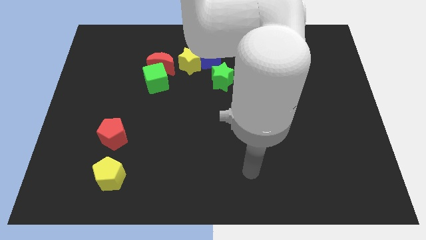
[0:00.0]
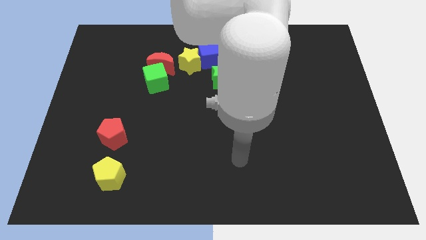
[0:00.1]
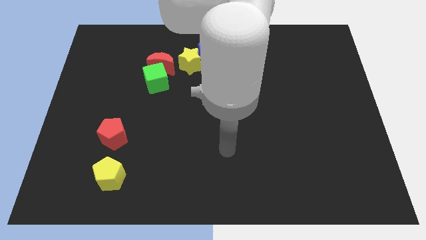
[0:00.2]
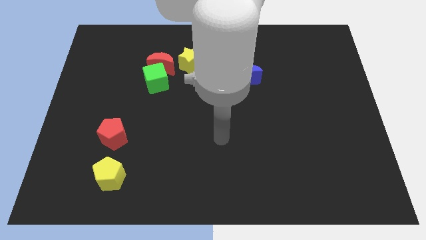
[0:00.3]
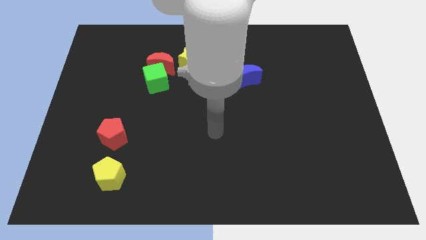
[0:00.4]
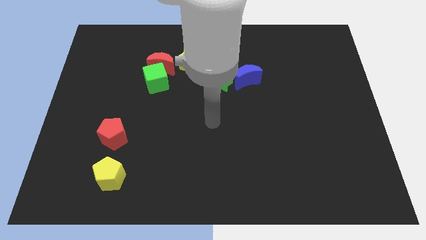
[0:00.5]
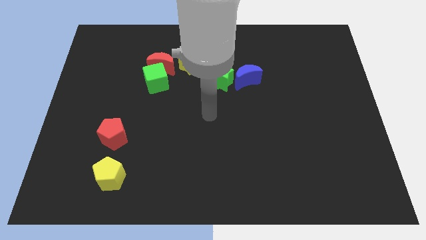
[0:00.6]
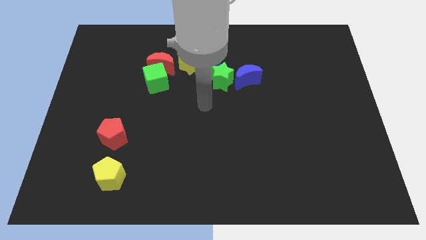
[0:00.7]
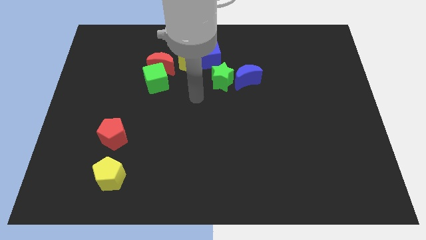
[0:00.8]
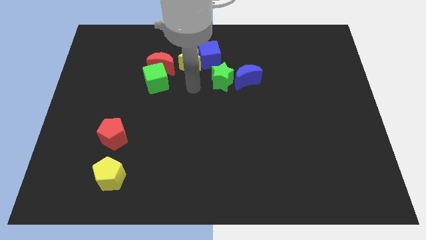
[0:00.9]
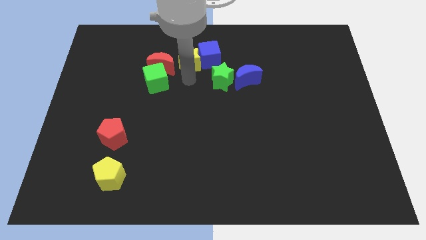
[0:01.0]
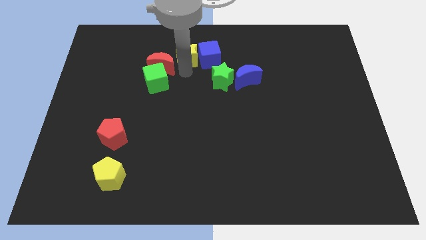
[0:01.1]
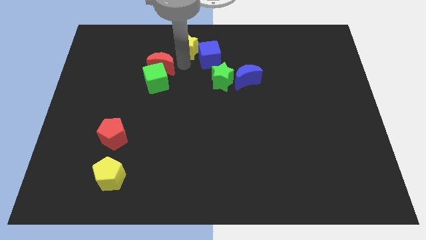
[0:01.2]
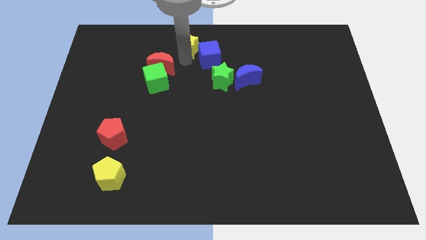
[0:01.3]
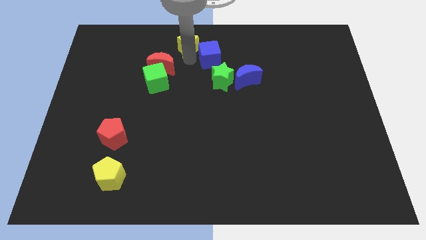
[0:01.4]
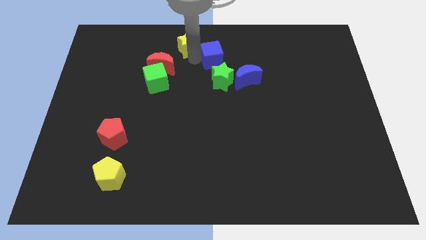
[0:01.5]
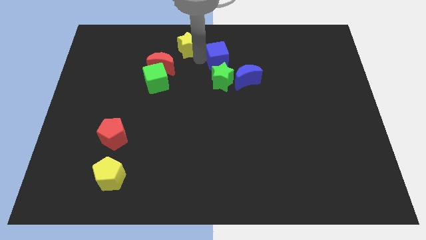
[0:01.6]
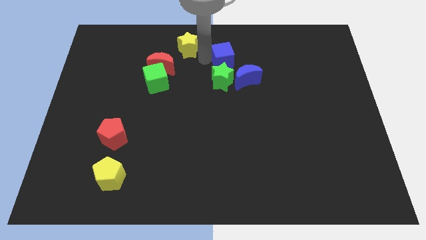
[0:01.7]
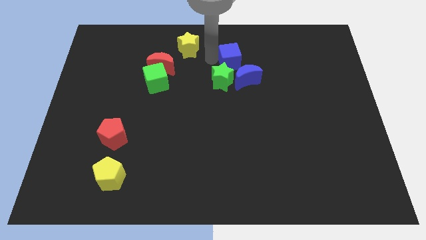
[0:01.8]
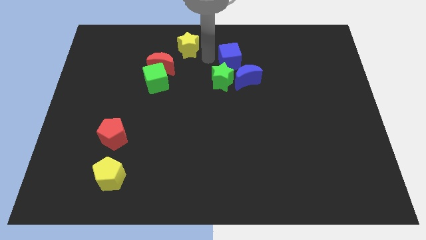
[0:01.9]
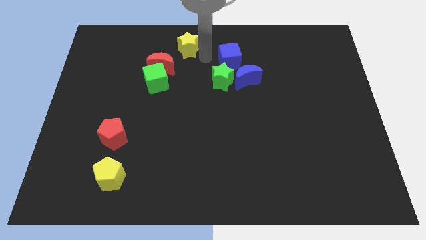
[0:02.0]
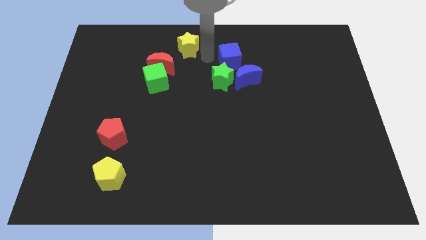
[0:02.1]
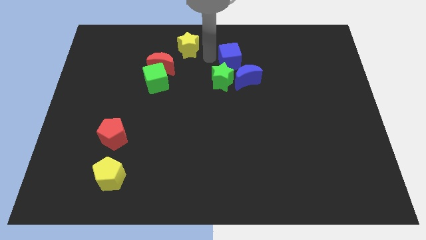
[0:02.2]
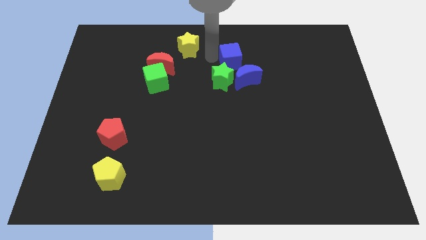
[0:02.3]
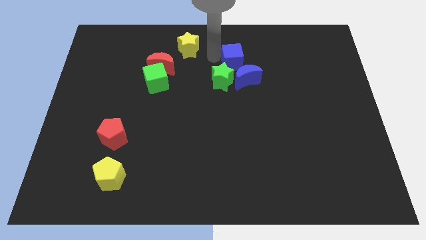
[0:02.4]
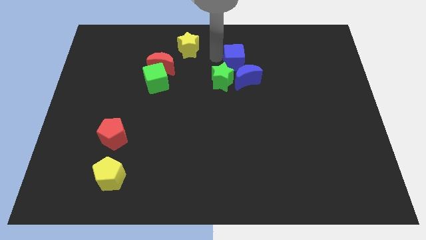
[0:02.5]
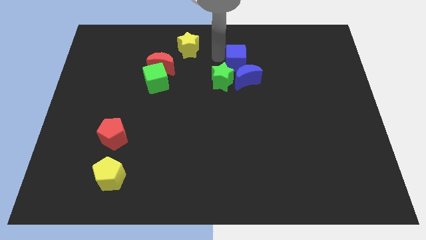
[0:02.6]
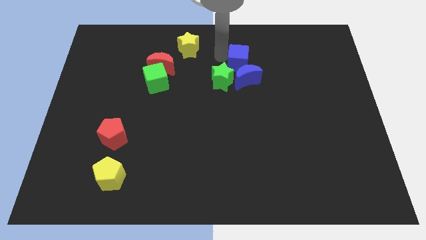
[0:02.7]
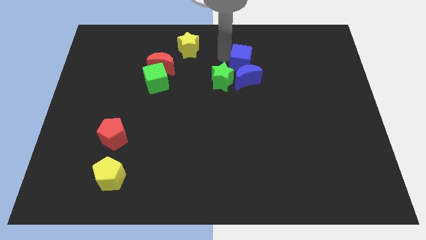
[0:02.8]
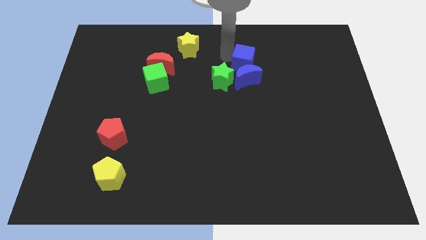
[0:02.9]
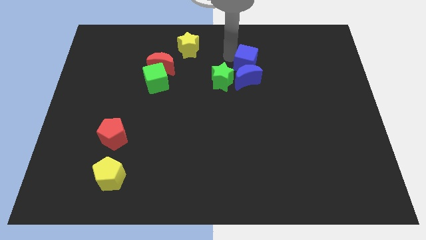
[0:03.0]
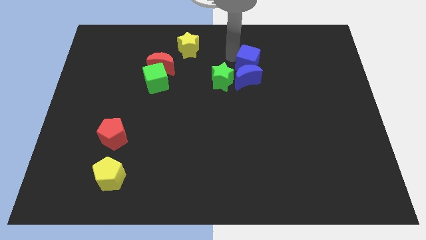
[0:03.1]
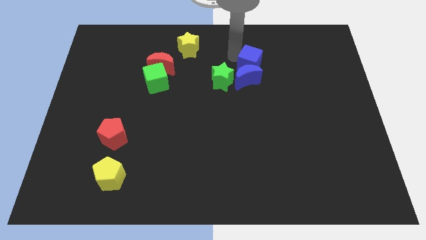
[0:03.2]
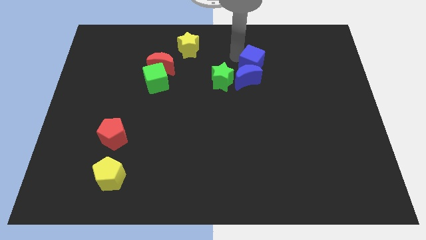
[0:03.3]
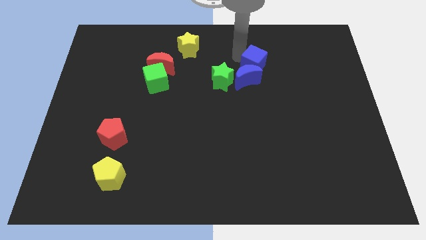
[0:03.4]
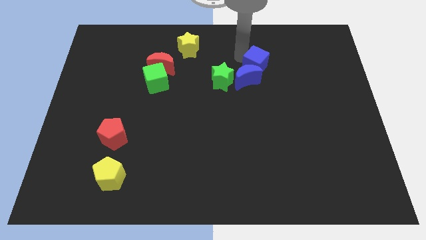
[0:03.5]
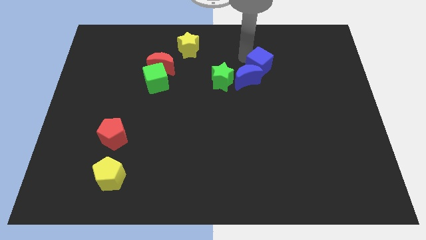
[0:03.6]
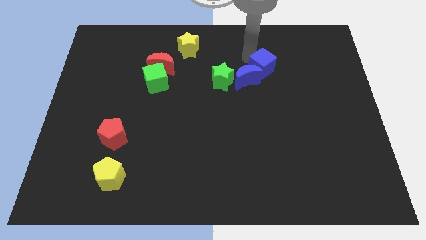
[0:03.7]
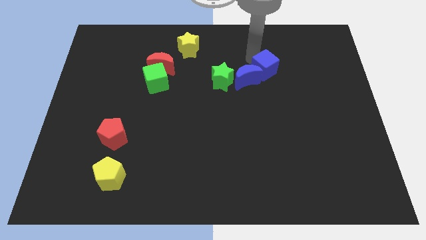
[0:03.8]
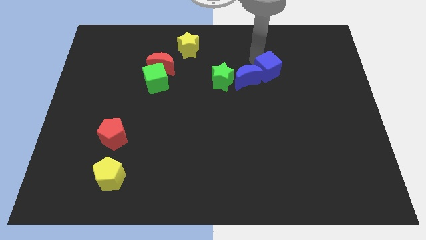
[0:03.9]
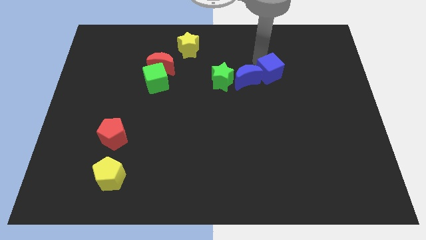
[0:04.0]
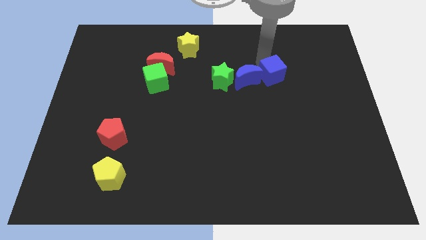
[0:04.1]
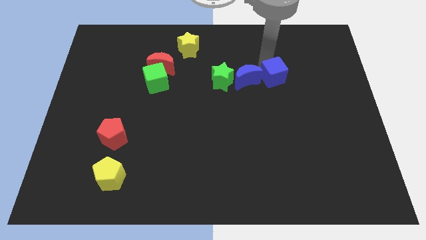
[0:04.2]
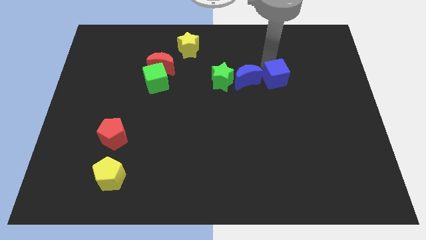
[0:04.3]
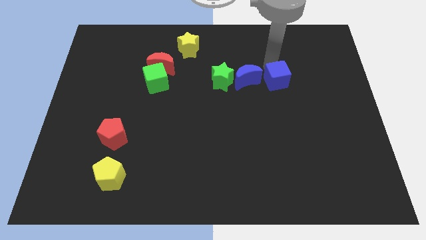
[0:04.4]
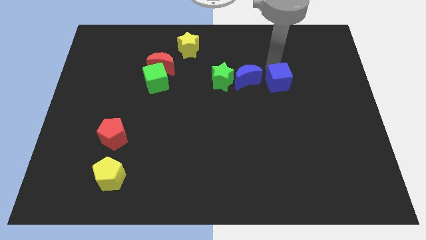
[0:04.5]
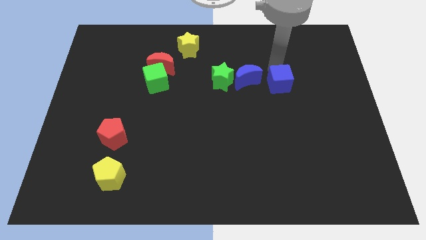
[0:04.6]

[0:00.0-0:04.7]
push the blue cube diagonally down and to the right of the blue moon

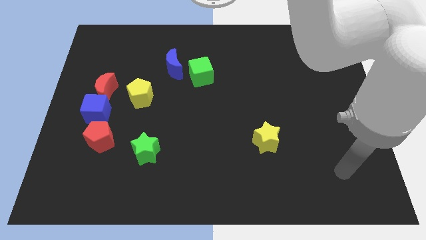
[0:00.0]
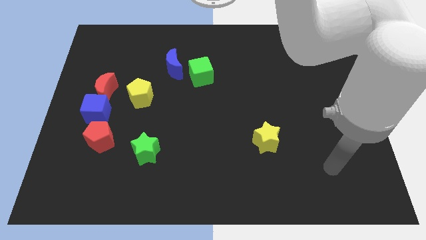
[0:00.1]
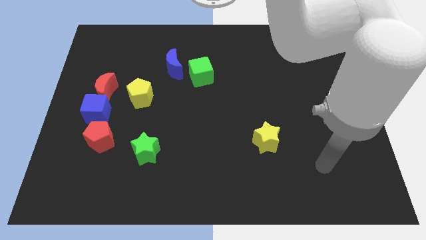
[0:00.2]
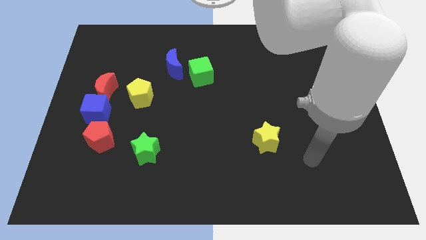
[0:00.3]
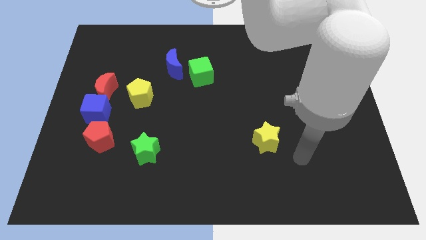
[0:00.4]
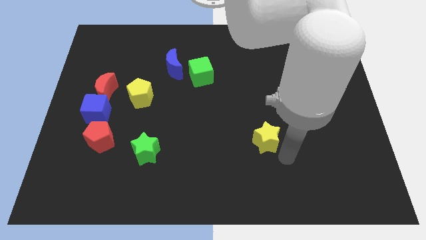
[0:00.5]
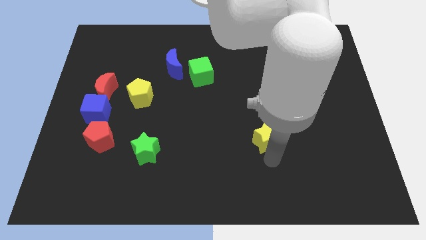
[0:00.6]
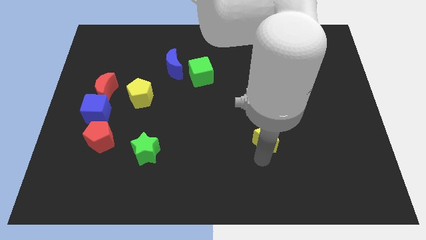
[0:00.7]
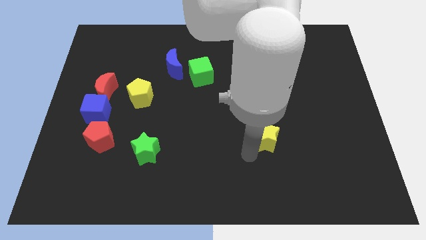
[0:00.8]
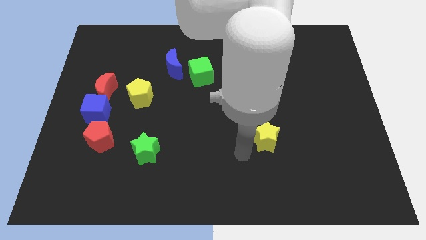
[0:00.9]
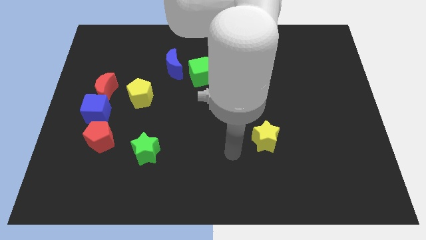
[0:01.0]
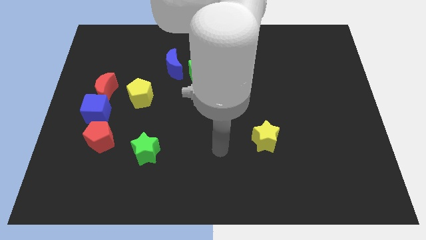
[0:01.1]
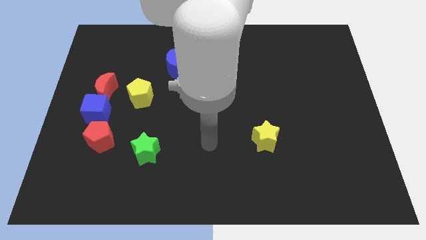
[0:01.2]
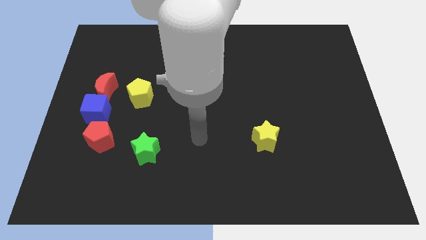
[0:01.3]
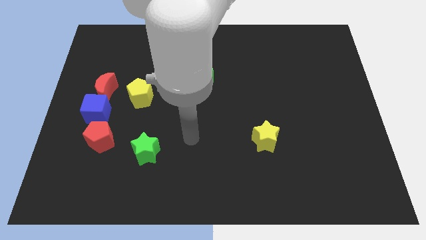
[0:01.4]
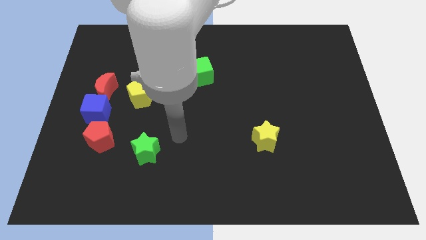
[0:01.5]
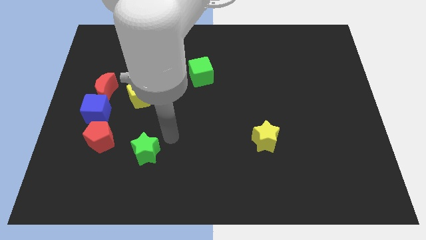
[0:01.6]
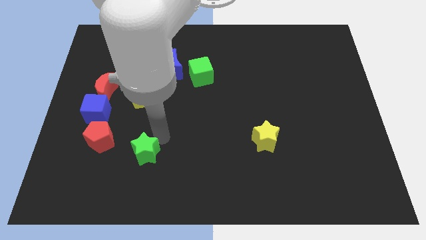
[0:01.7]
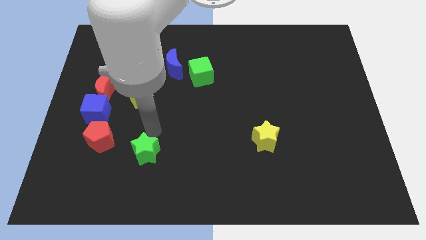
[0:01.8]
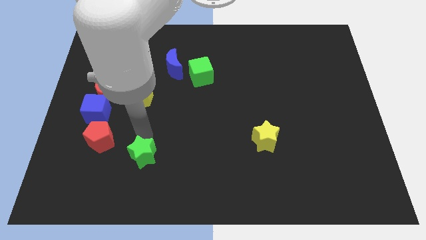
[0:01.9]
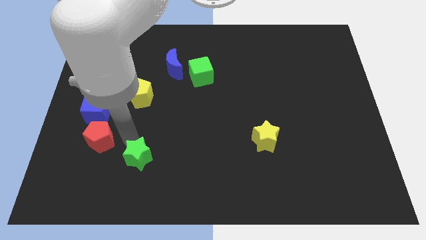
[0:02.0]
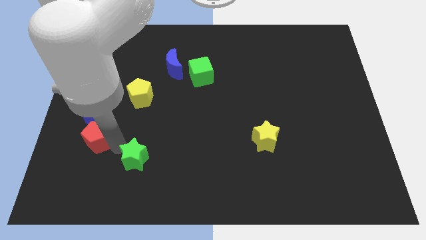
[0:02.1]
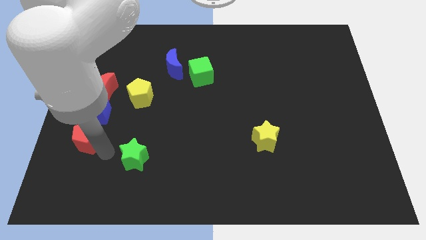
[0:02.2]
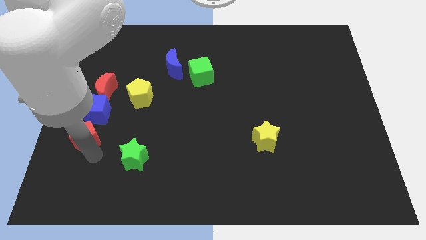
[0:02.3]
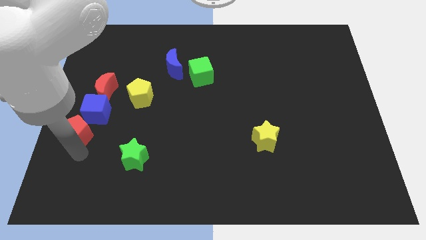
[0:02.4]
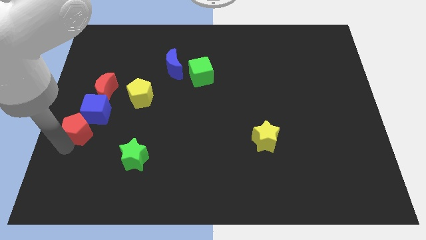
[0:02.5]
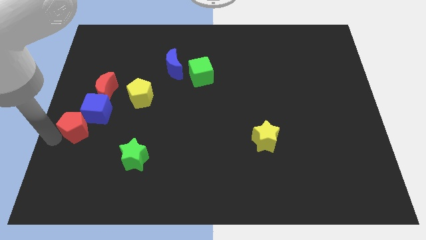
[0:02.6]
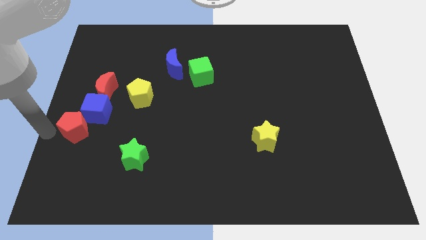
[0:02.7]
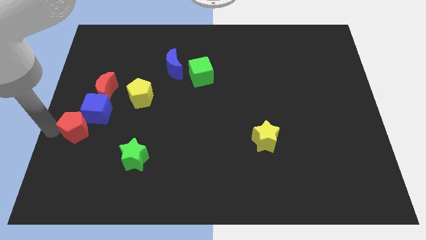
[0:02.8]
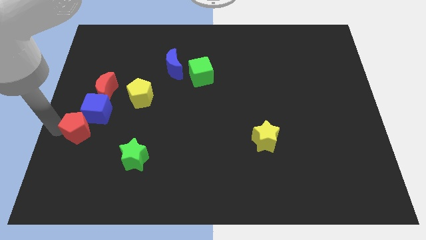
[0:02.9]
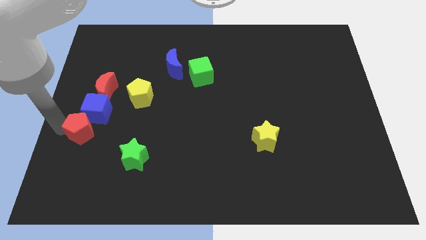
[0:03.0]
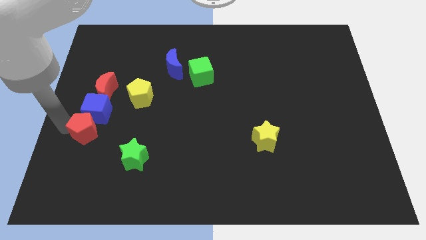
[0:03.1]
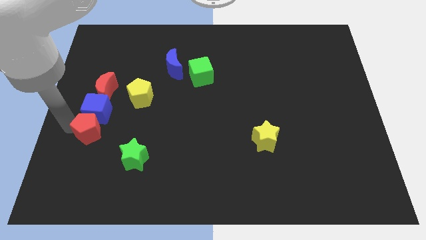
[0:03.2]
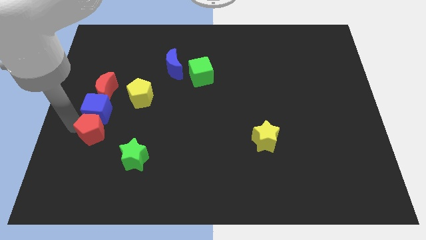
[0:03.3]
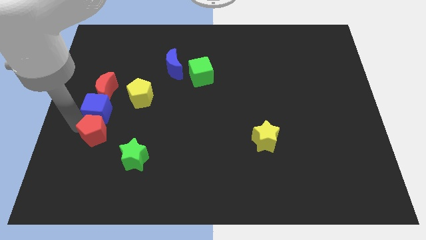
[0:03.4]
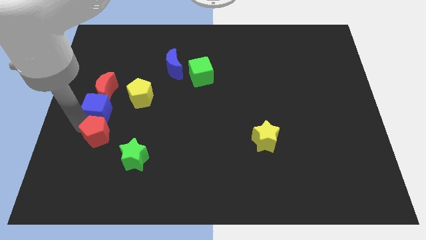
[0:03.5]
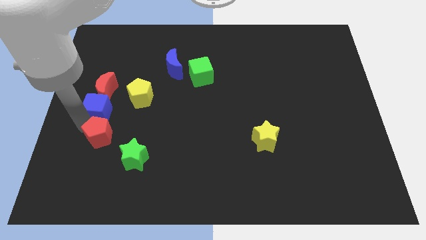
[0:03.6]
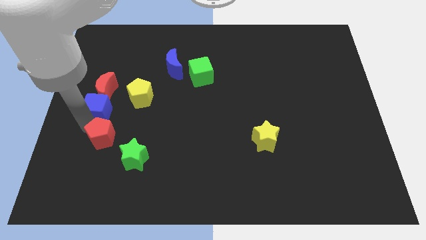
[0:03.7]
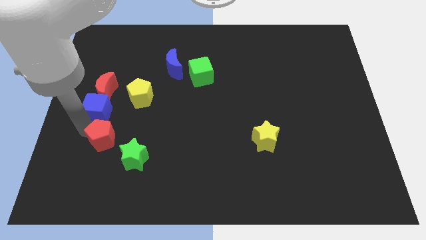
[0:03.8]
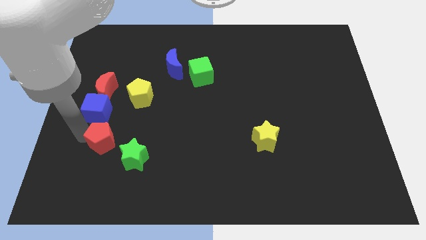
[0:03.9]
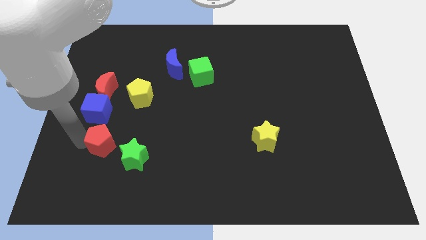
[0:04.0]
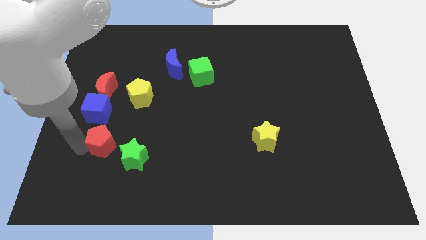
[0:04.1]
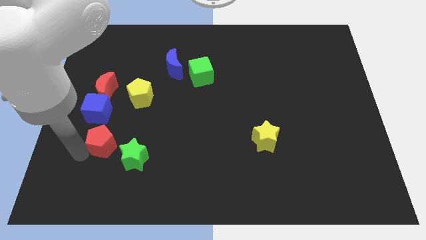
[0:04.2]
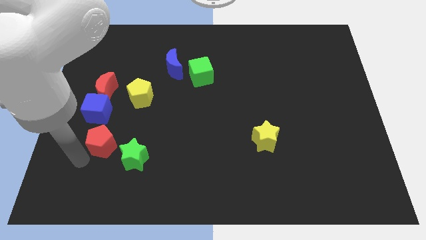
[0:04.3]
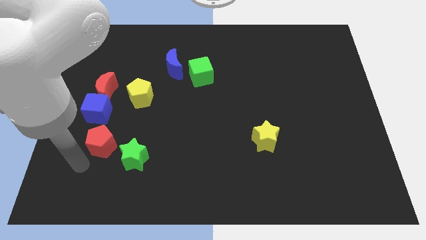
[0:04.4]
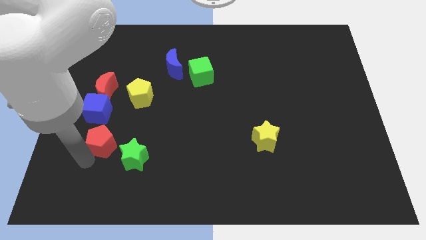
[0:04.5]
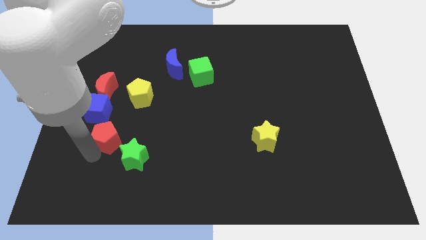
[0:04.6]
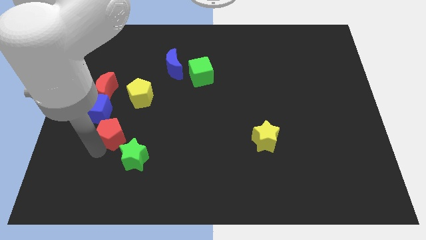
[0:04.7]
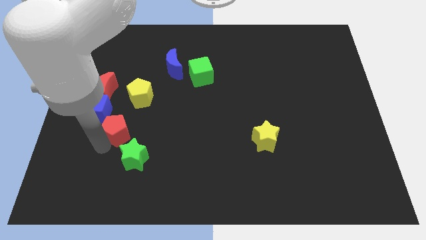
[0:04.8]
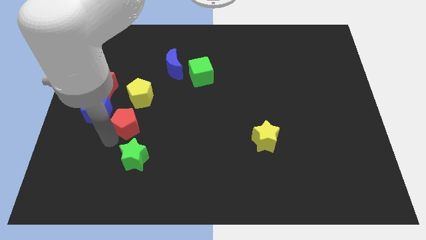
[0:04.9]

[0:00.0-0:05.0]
slide the red pentagon right of the blue cube
